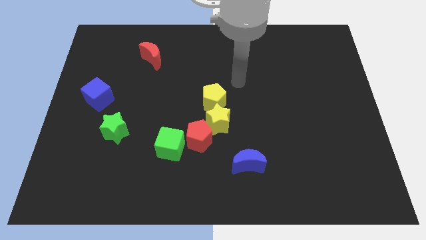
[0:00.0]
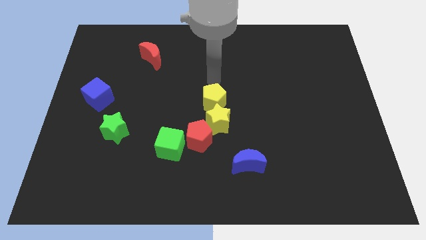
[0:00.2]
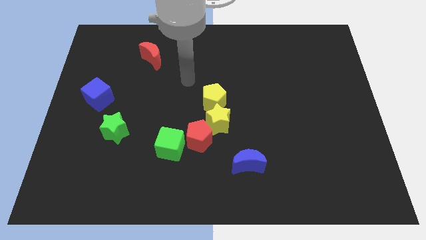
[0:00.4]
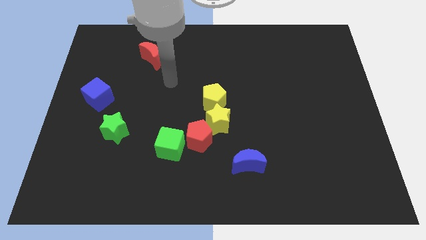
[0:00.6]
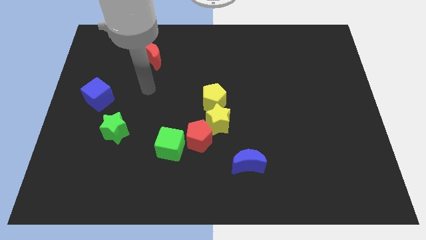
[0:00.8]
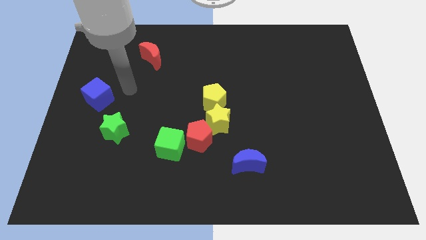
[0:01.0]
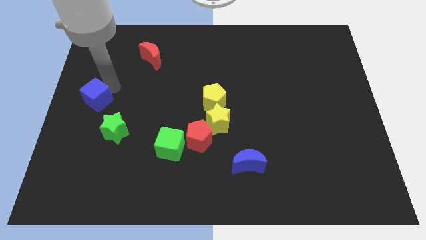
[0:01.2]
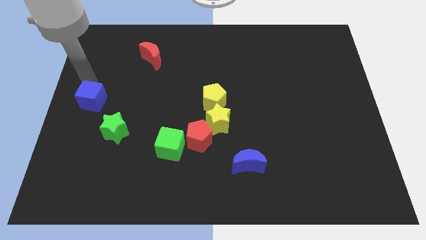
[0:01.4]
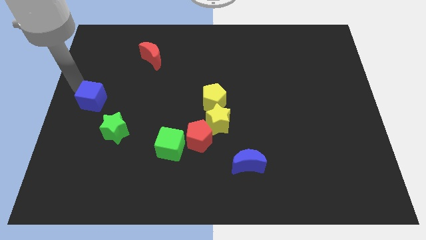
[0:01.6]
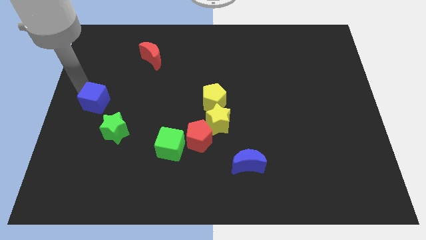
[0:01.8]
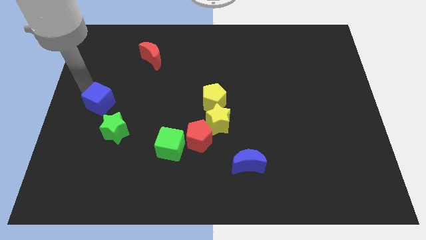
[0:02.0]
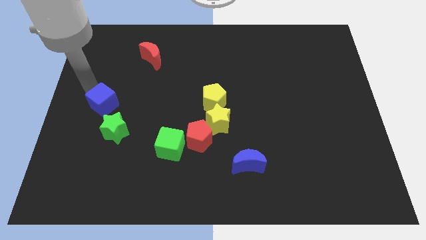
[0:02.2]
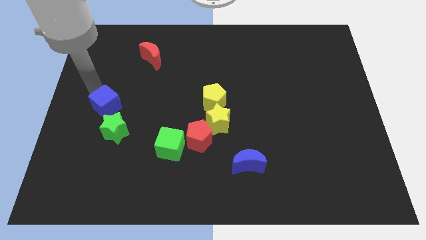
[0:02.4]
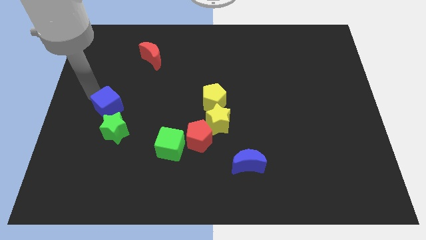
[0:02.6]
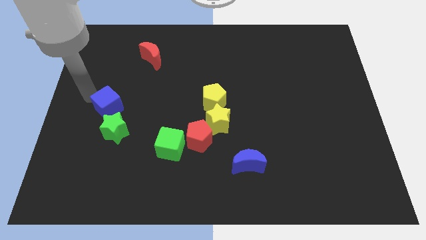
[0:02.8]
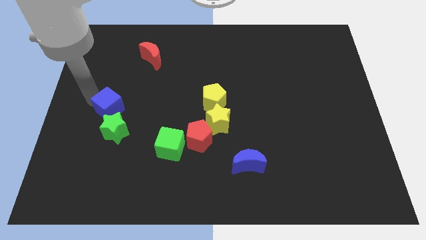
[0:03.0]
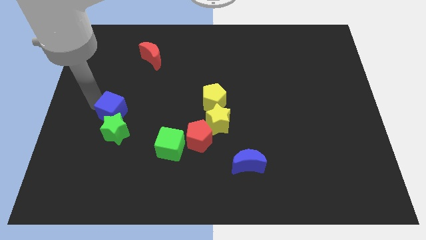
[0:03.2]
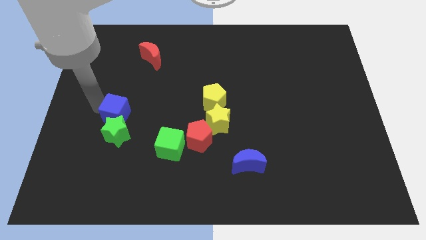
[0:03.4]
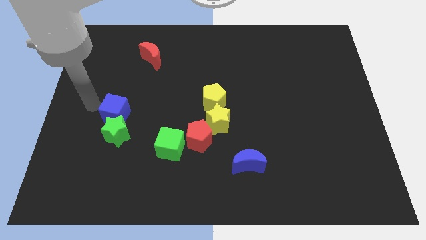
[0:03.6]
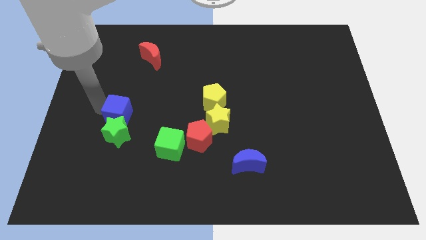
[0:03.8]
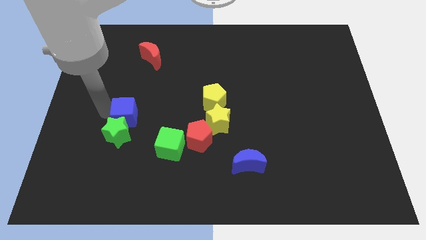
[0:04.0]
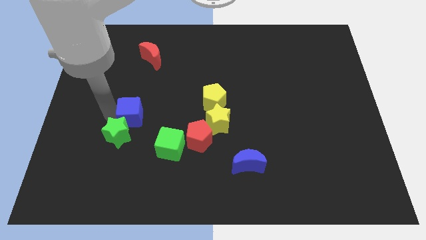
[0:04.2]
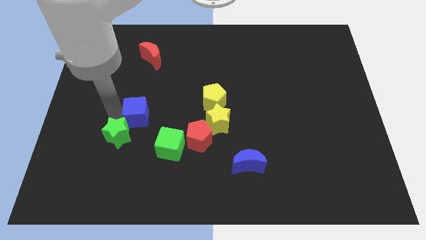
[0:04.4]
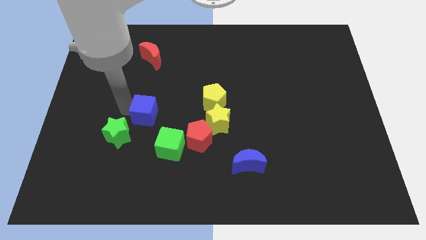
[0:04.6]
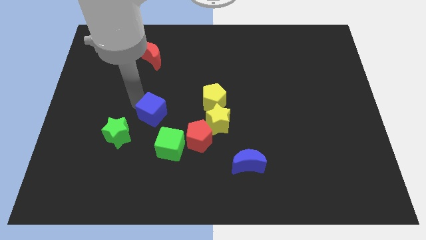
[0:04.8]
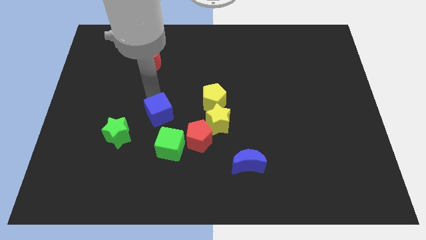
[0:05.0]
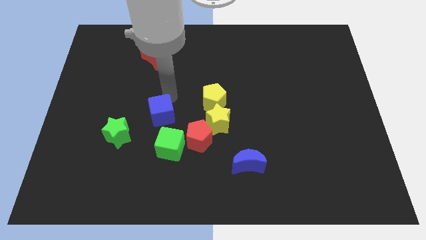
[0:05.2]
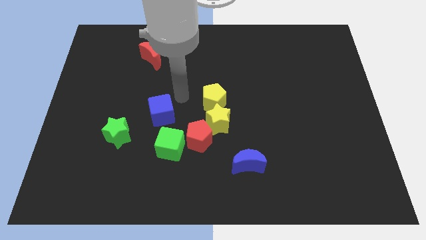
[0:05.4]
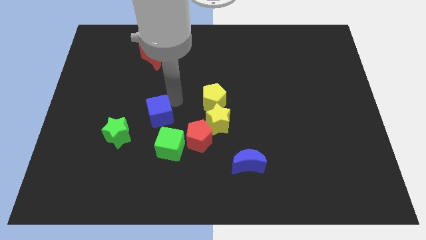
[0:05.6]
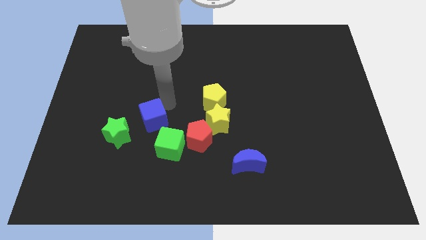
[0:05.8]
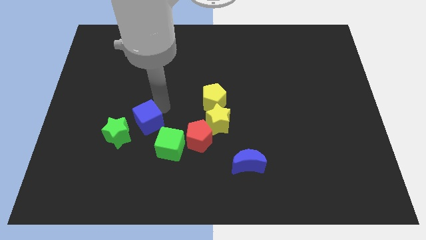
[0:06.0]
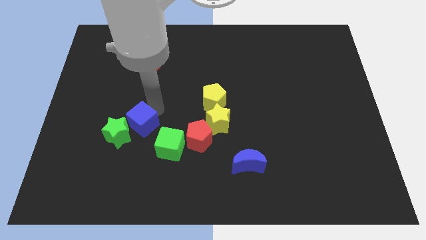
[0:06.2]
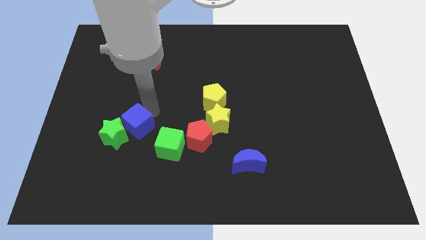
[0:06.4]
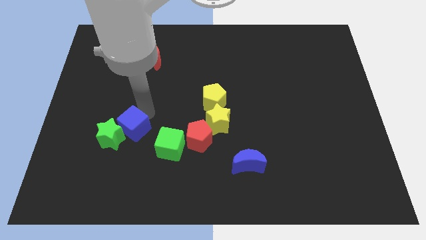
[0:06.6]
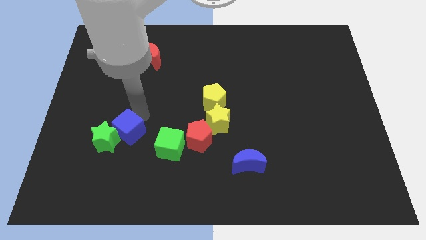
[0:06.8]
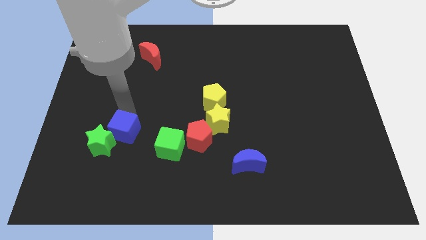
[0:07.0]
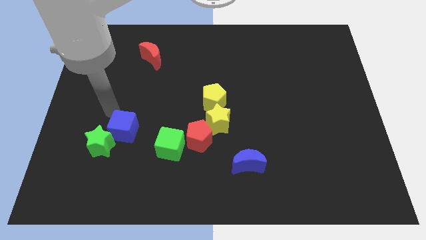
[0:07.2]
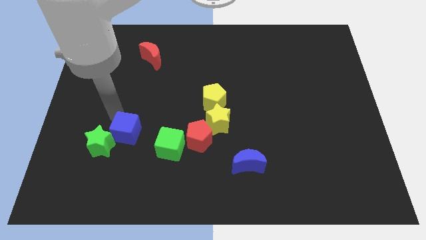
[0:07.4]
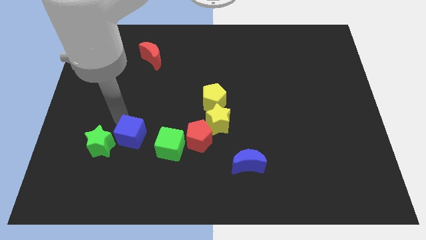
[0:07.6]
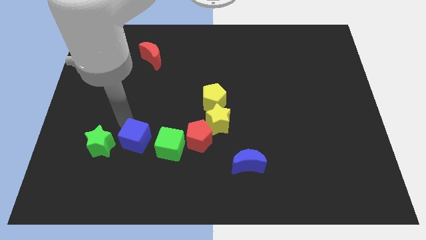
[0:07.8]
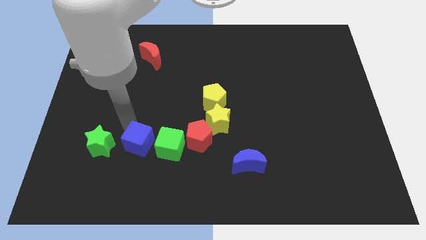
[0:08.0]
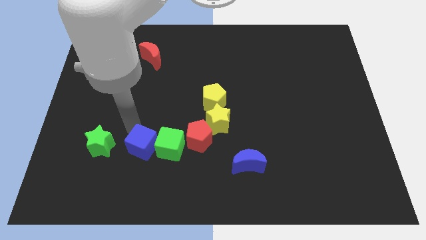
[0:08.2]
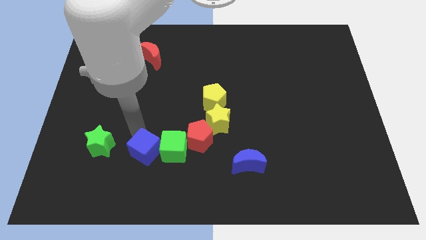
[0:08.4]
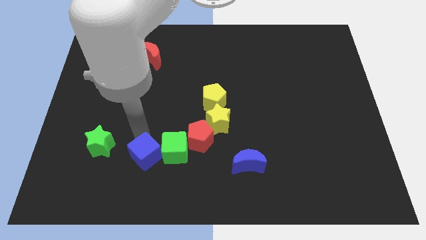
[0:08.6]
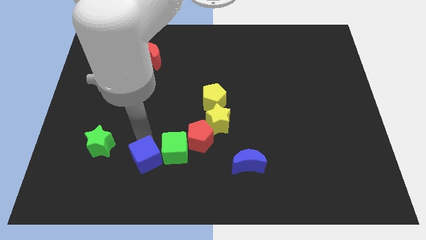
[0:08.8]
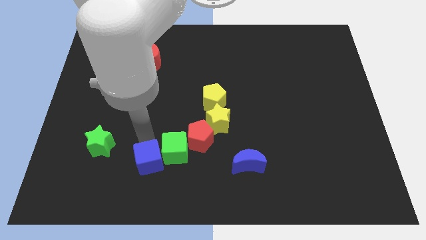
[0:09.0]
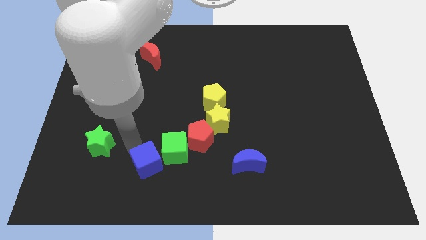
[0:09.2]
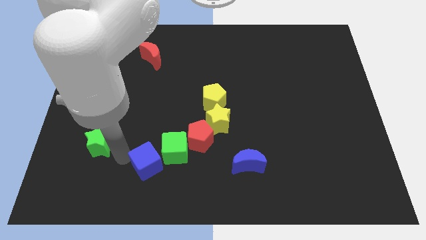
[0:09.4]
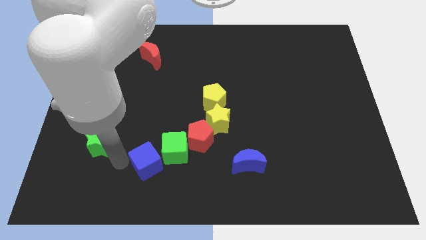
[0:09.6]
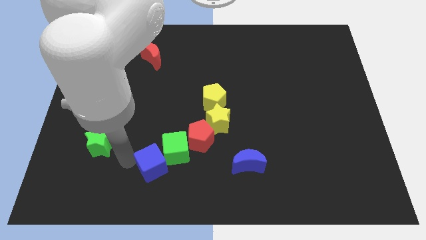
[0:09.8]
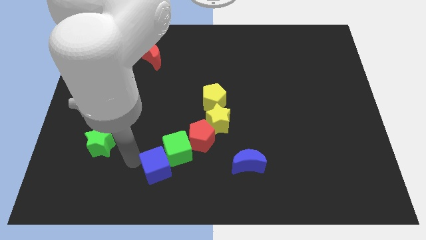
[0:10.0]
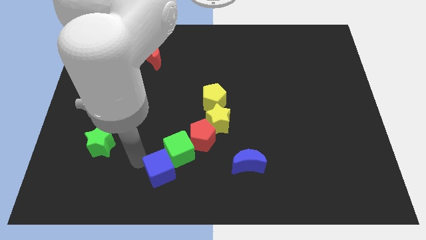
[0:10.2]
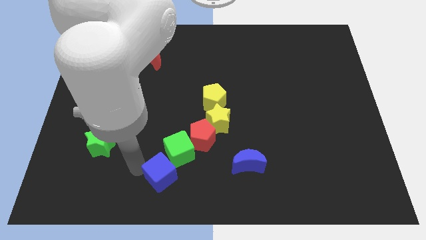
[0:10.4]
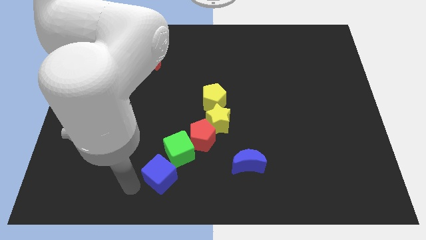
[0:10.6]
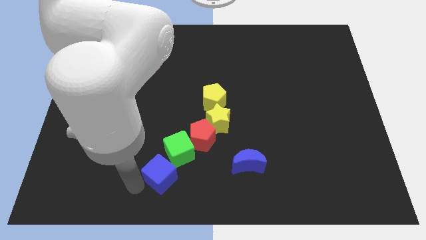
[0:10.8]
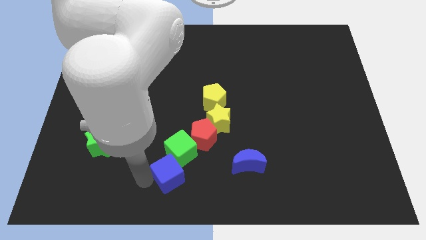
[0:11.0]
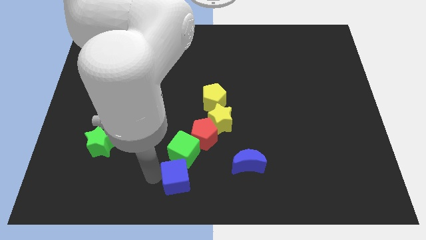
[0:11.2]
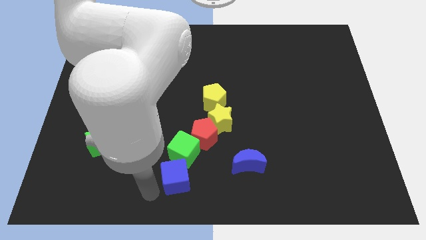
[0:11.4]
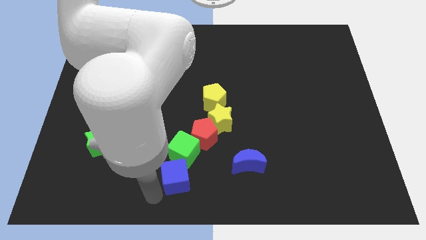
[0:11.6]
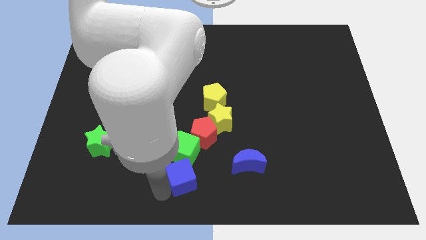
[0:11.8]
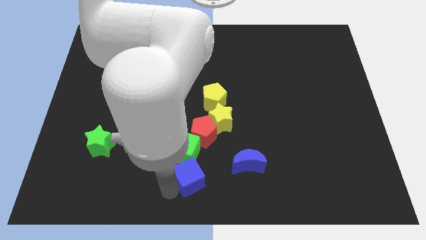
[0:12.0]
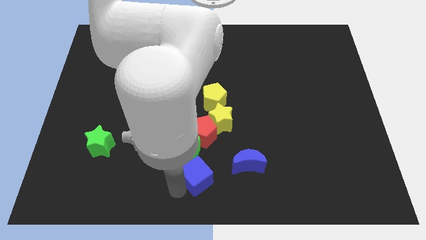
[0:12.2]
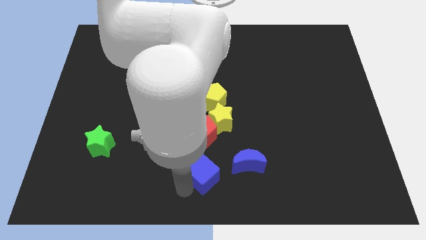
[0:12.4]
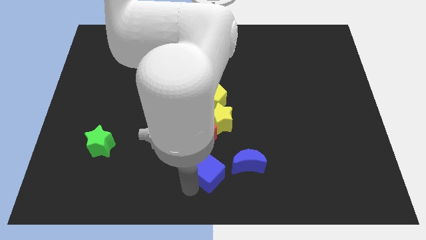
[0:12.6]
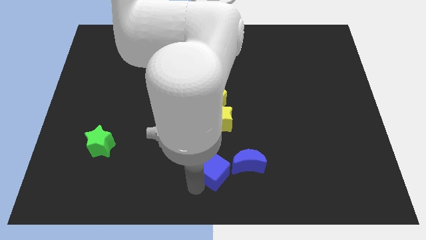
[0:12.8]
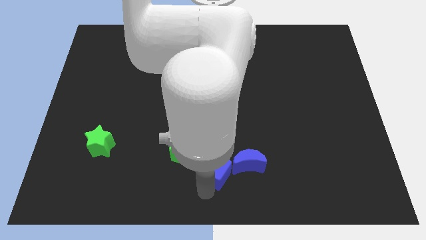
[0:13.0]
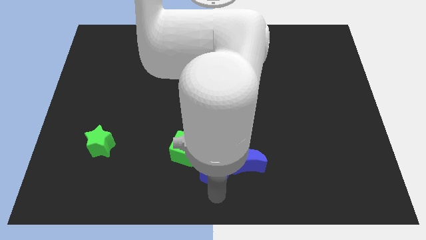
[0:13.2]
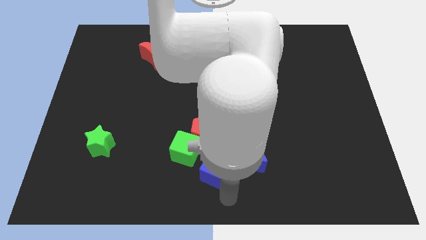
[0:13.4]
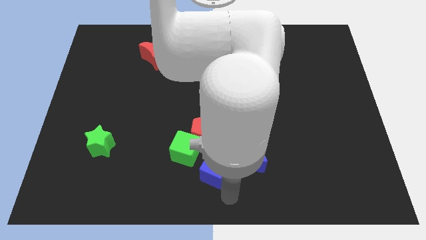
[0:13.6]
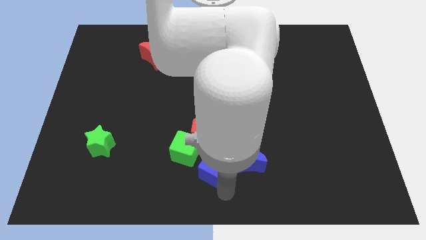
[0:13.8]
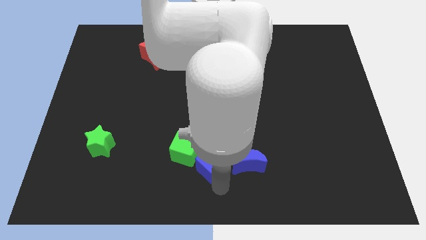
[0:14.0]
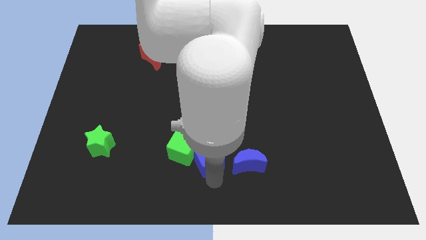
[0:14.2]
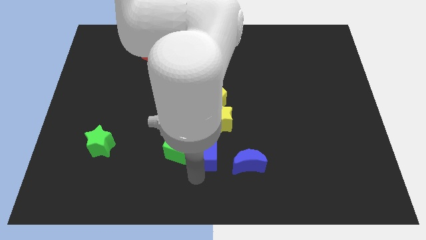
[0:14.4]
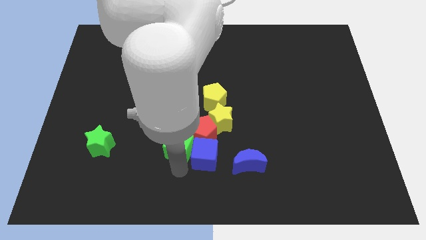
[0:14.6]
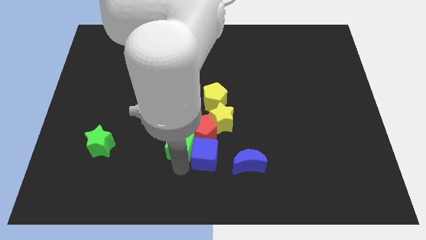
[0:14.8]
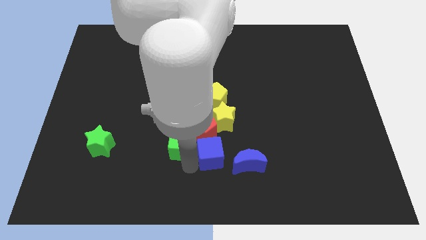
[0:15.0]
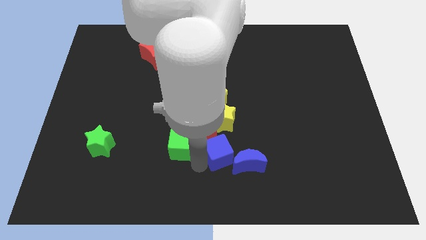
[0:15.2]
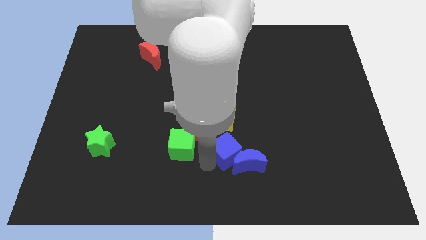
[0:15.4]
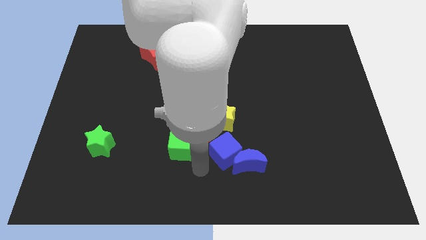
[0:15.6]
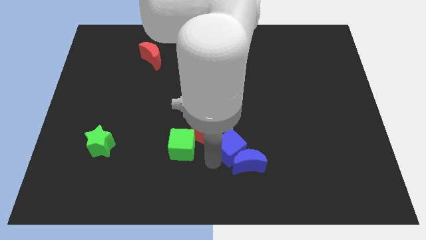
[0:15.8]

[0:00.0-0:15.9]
move the blue cube to the bottom right of the yellow star

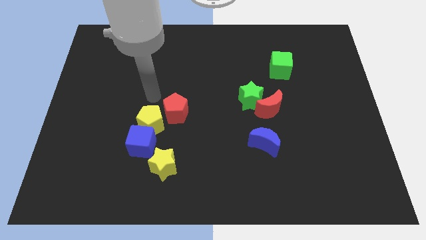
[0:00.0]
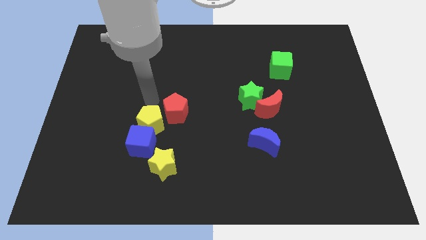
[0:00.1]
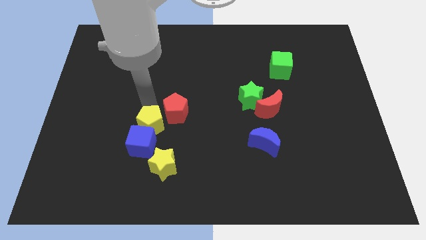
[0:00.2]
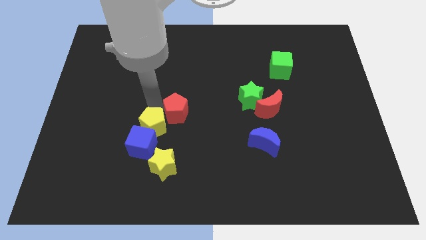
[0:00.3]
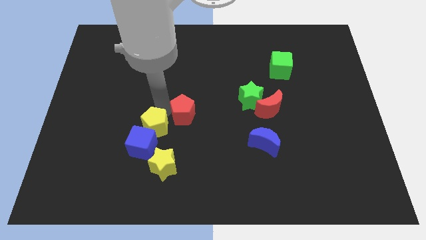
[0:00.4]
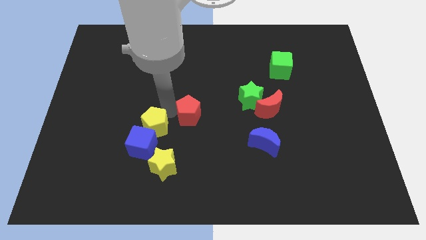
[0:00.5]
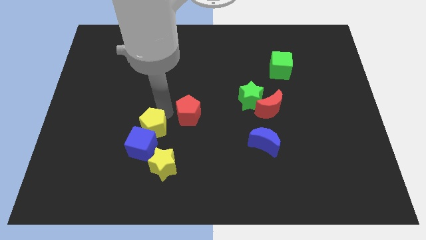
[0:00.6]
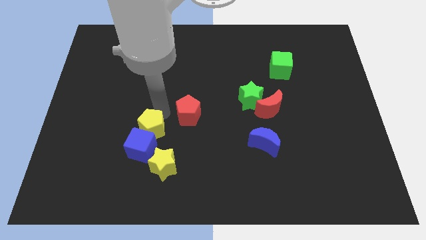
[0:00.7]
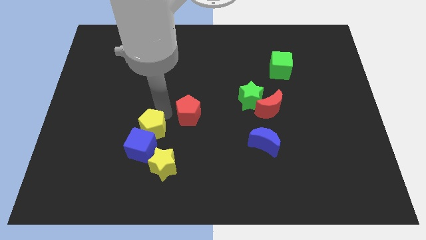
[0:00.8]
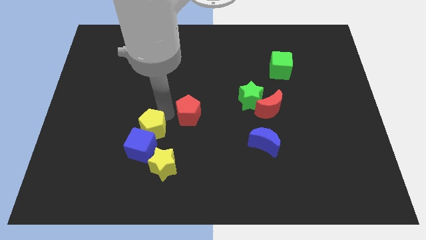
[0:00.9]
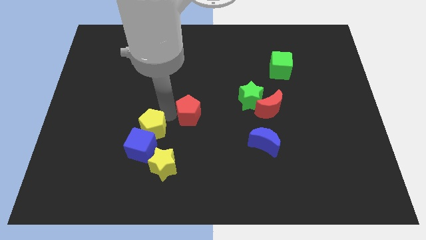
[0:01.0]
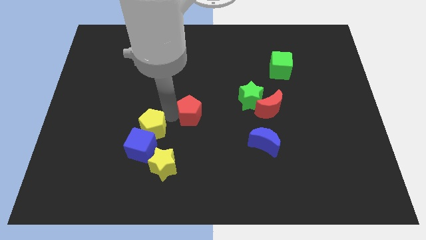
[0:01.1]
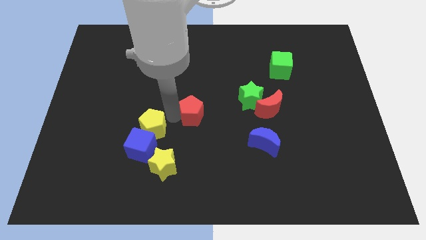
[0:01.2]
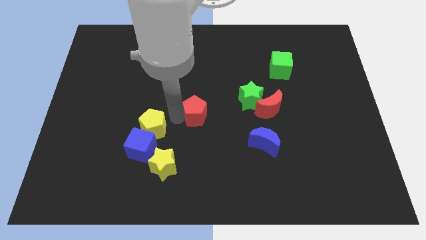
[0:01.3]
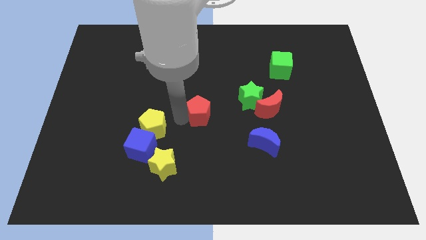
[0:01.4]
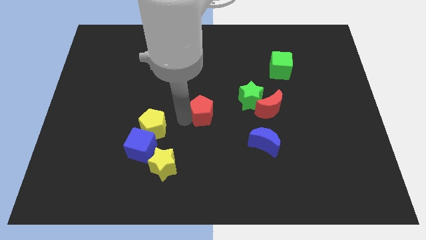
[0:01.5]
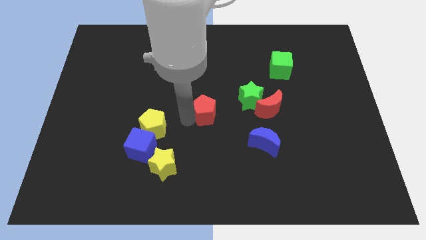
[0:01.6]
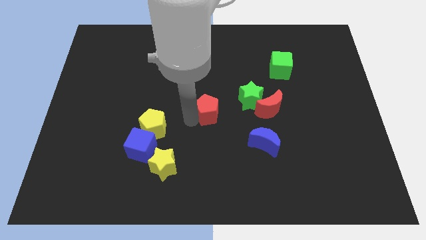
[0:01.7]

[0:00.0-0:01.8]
push the red pentagon diagonally down and to the left of the green star
